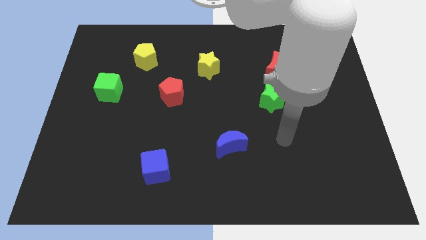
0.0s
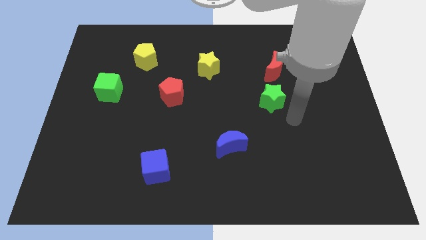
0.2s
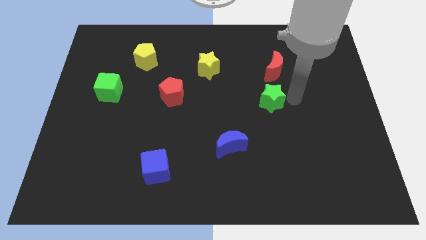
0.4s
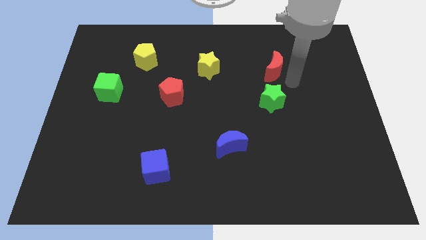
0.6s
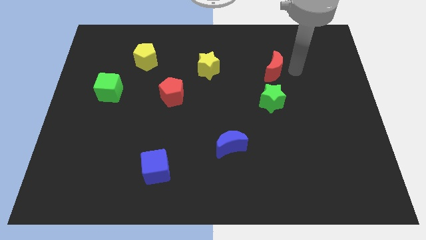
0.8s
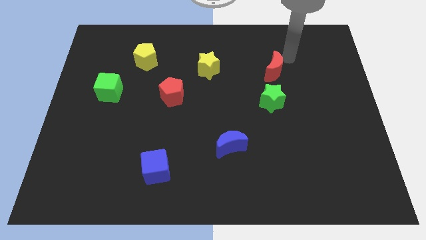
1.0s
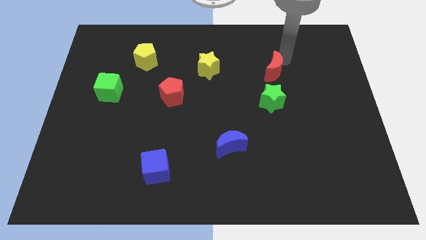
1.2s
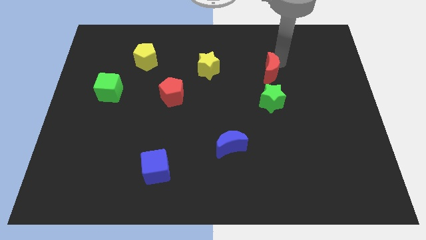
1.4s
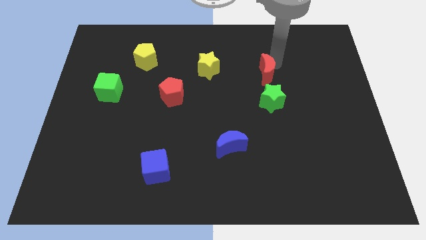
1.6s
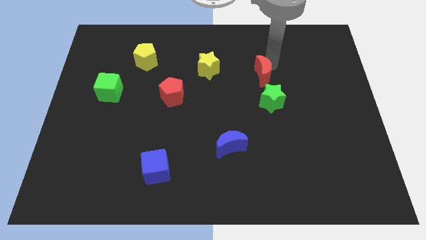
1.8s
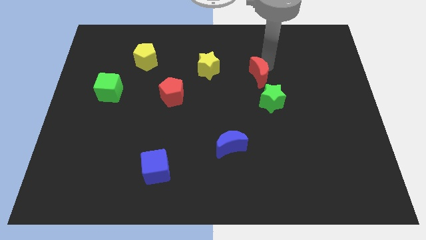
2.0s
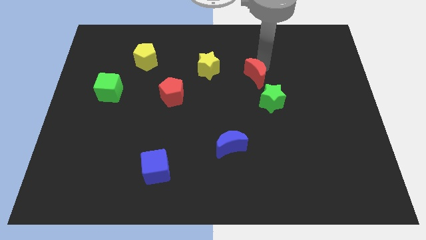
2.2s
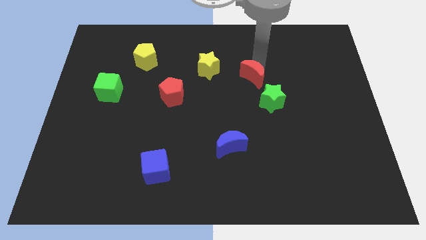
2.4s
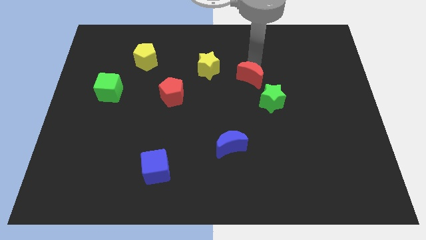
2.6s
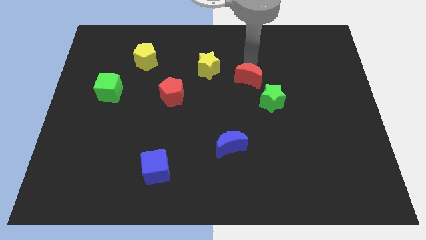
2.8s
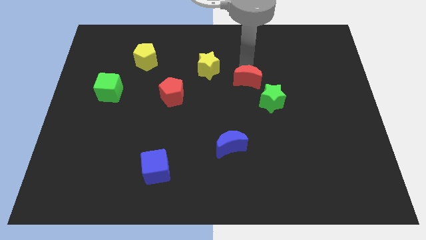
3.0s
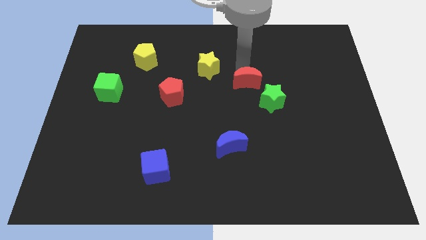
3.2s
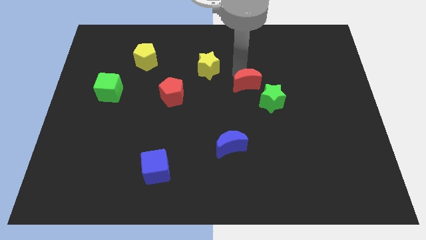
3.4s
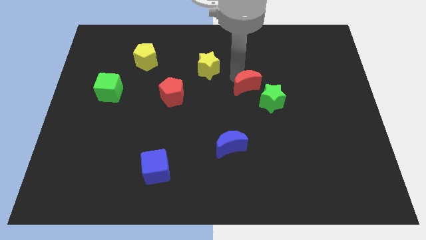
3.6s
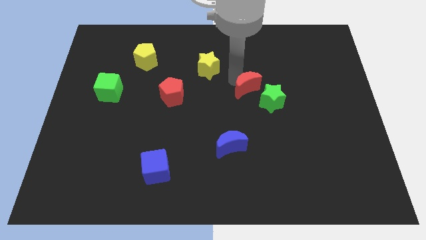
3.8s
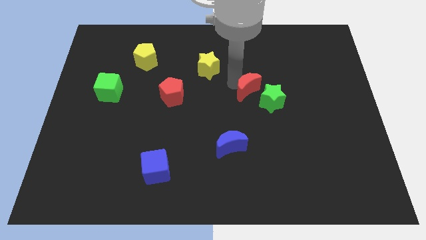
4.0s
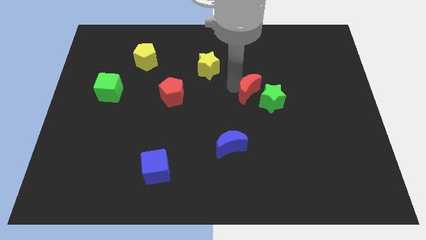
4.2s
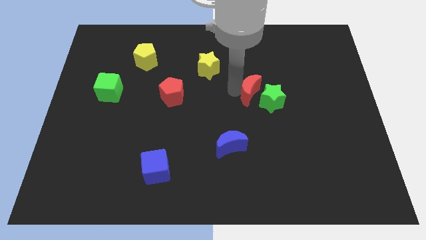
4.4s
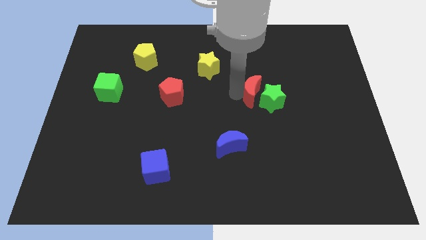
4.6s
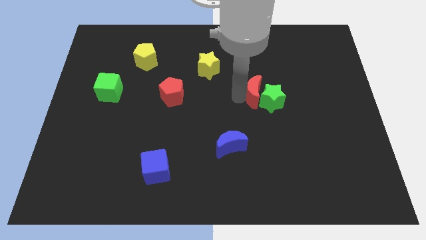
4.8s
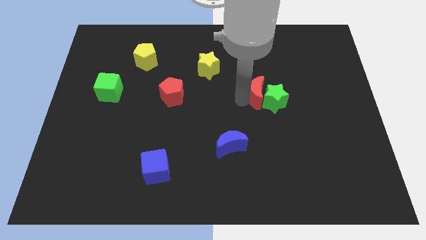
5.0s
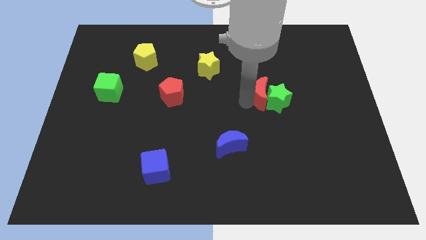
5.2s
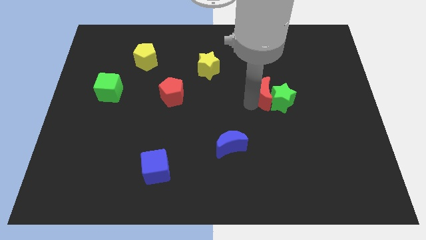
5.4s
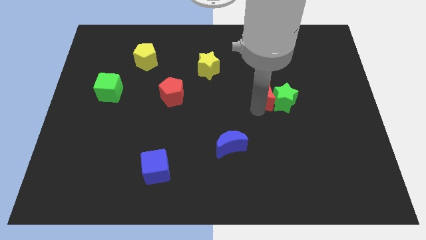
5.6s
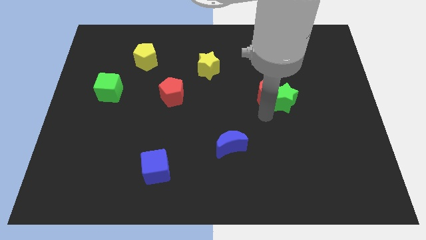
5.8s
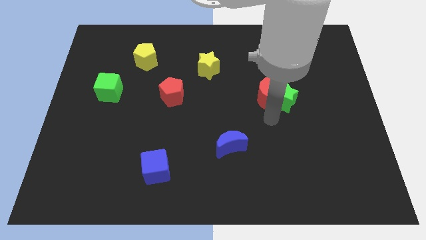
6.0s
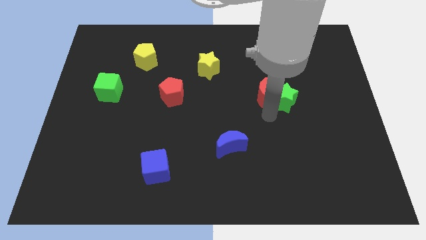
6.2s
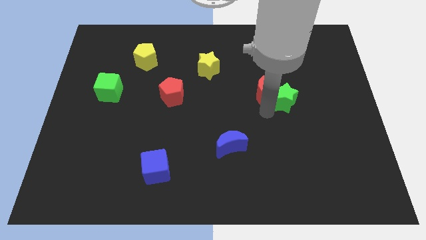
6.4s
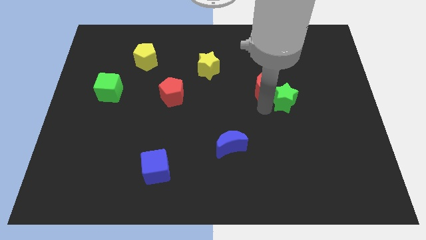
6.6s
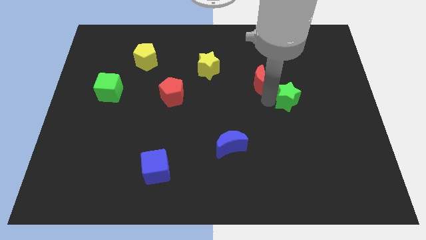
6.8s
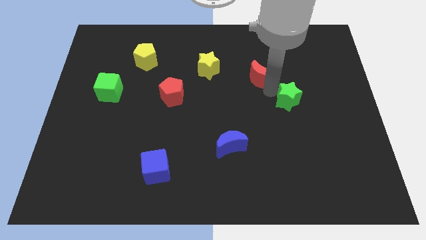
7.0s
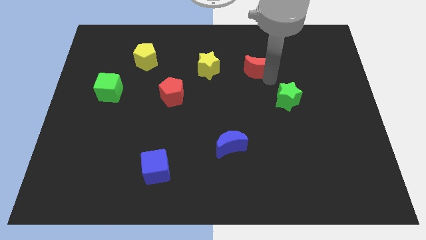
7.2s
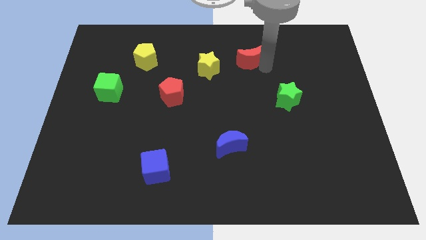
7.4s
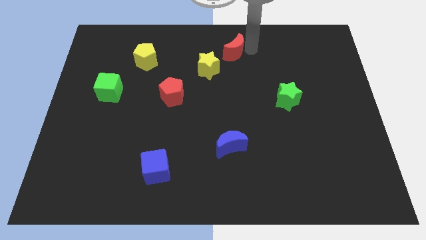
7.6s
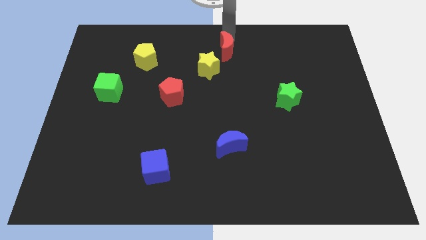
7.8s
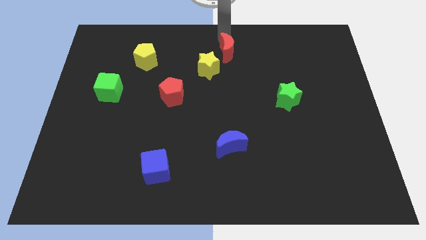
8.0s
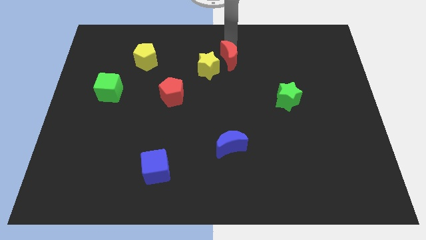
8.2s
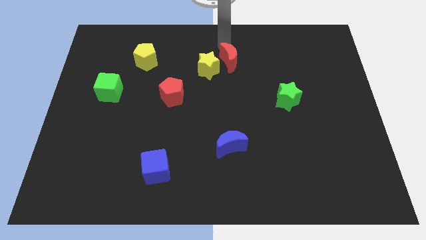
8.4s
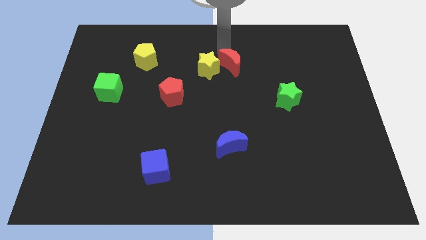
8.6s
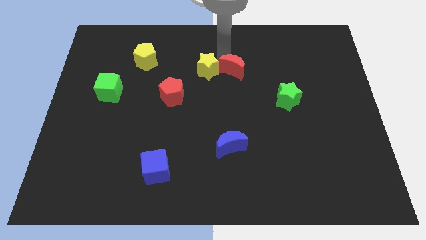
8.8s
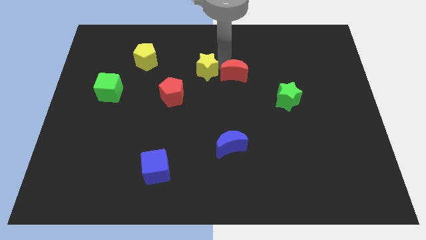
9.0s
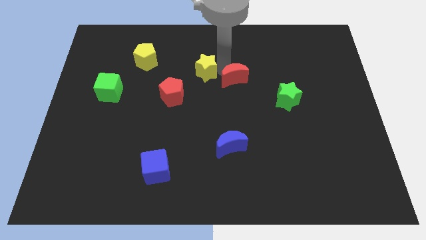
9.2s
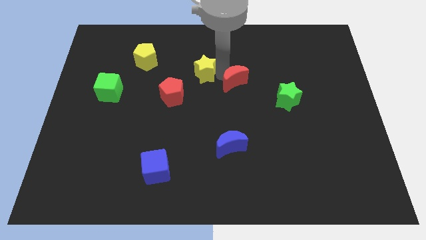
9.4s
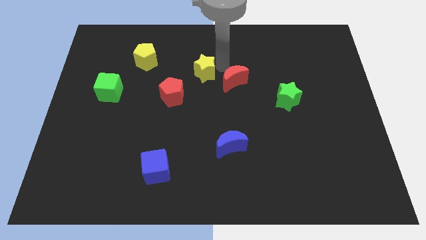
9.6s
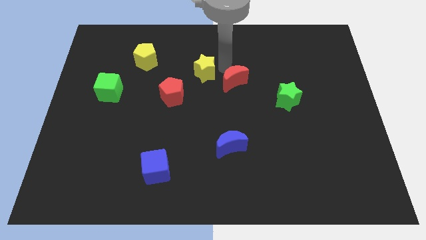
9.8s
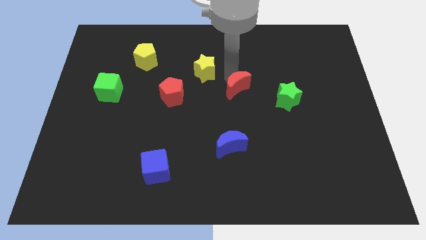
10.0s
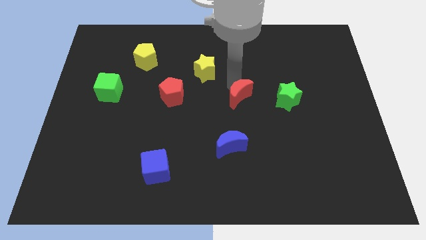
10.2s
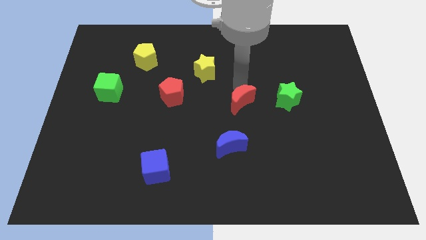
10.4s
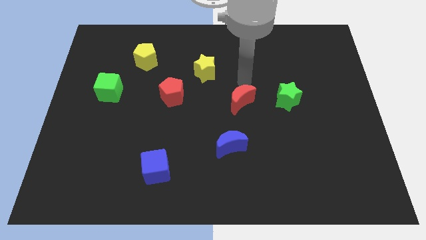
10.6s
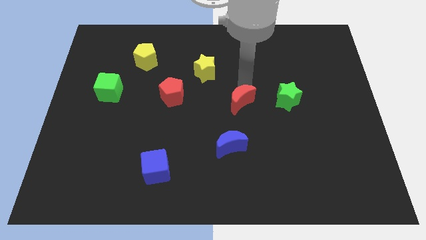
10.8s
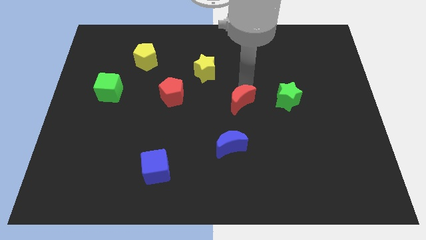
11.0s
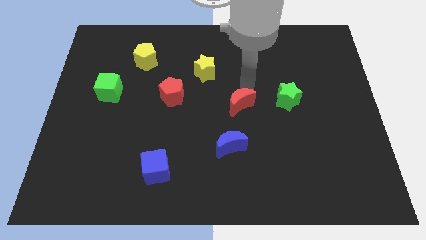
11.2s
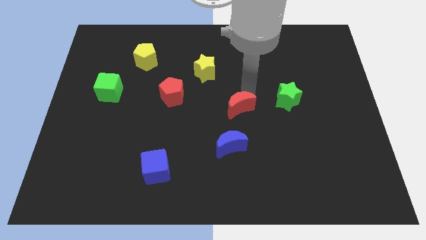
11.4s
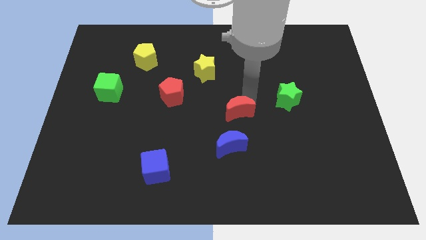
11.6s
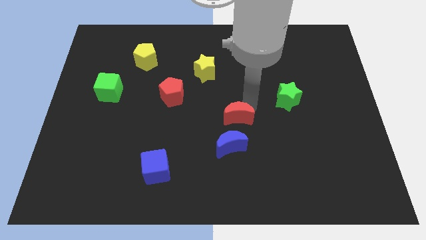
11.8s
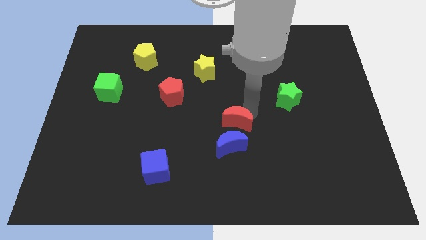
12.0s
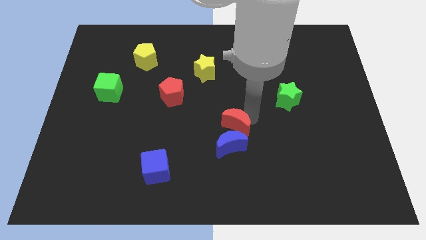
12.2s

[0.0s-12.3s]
move the red moon to the blue moon

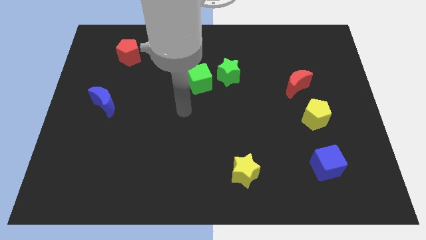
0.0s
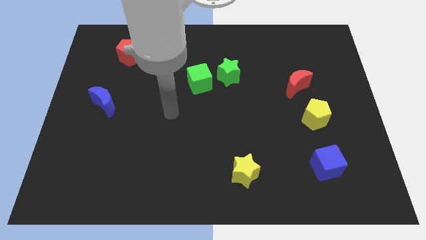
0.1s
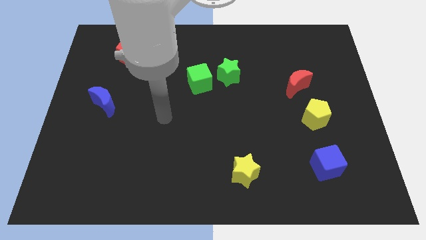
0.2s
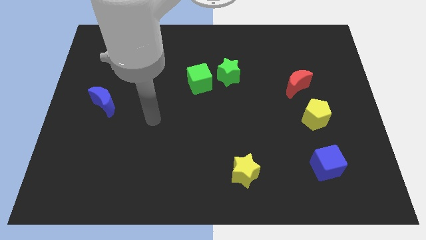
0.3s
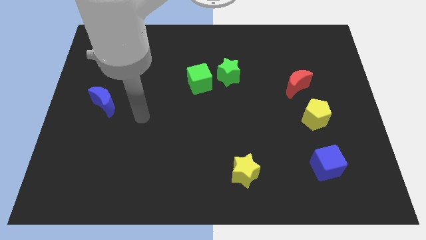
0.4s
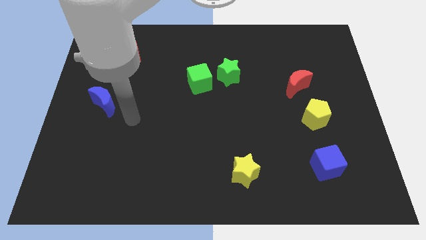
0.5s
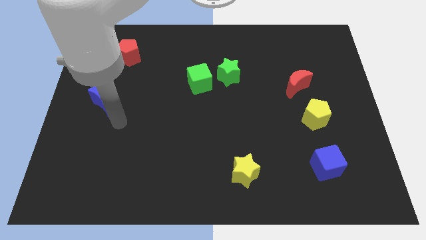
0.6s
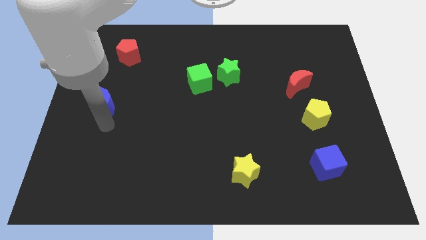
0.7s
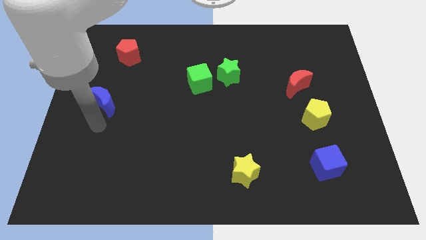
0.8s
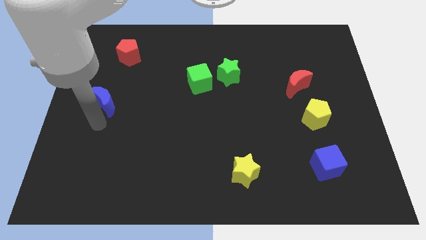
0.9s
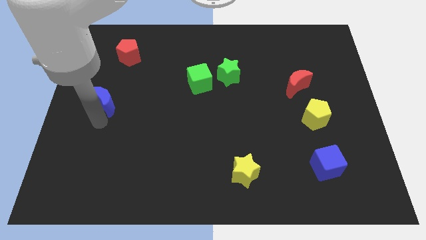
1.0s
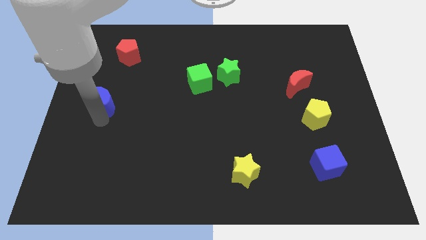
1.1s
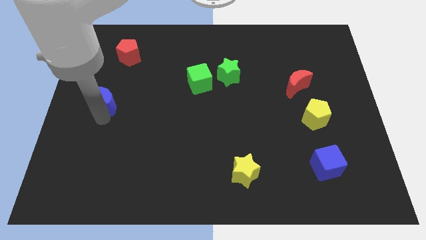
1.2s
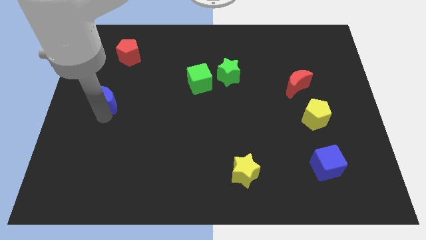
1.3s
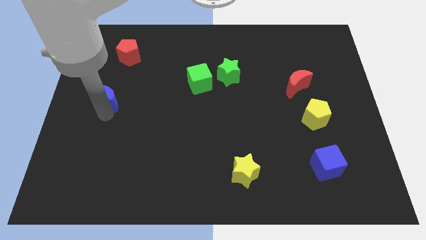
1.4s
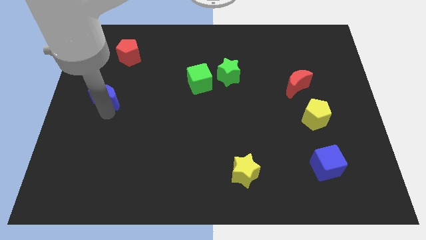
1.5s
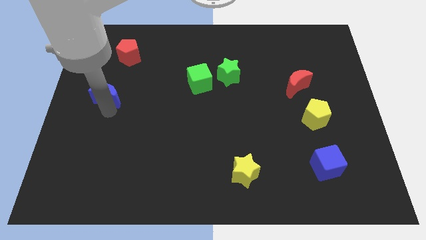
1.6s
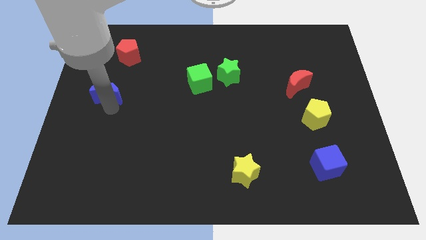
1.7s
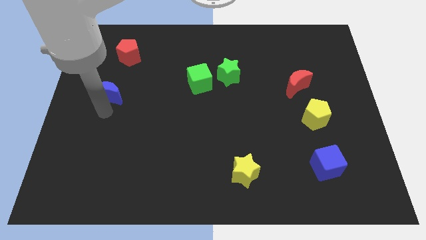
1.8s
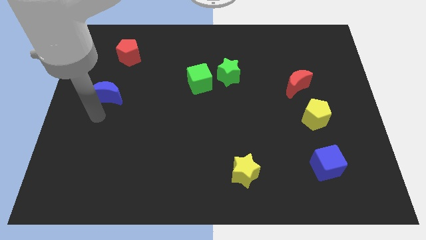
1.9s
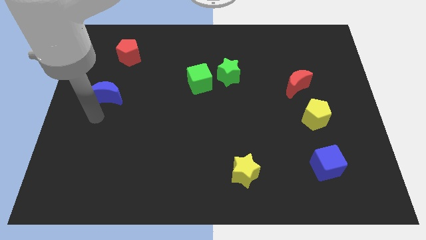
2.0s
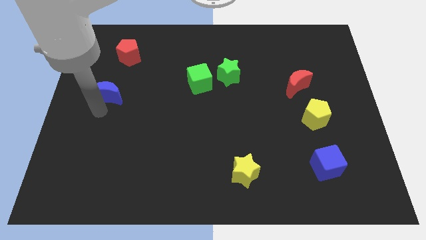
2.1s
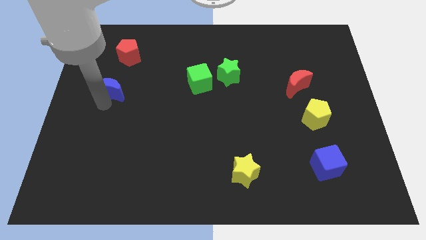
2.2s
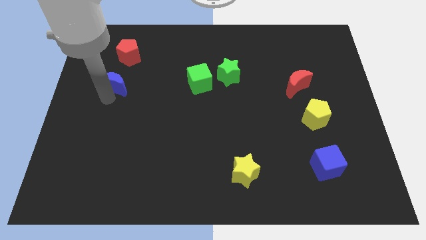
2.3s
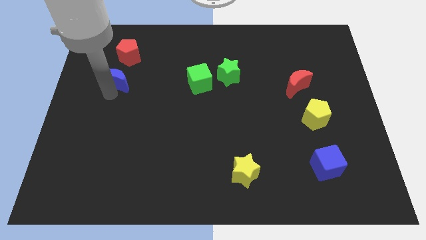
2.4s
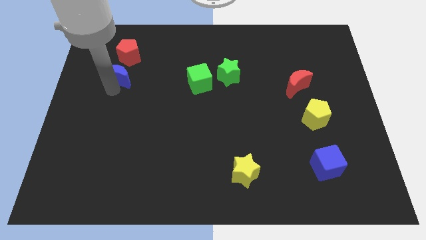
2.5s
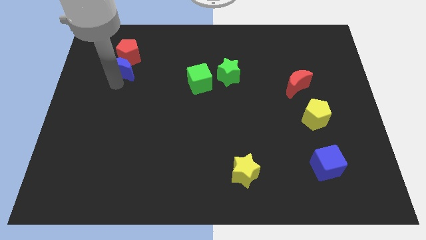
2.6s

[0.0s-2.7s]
move the blue moon to the red pentagon
